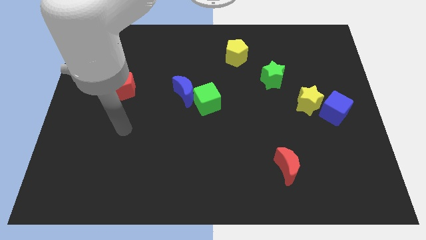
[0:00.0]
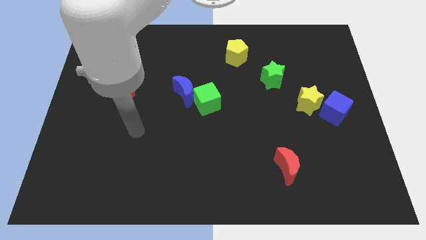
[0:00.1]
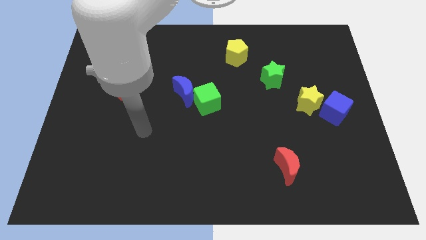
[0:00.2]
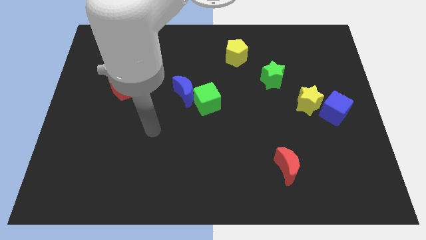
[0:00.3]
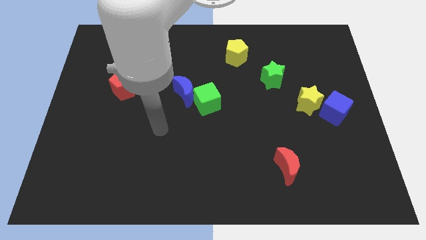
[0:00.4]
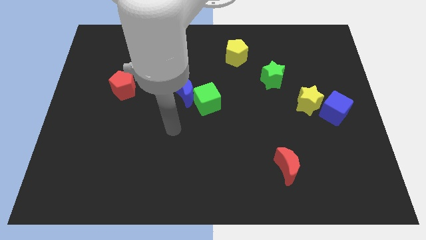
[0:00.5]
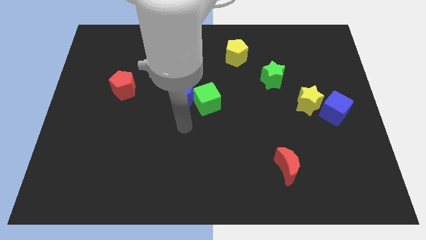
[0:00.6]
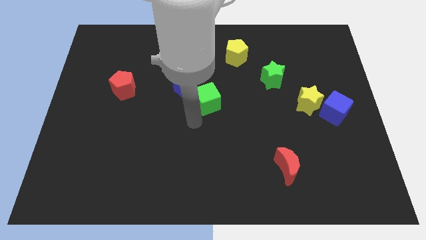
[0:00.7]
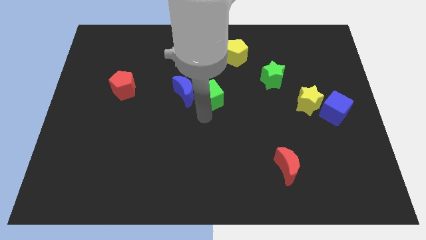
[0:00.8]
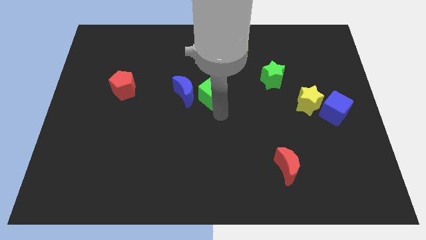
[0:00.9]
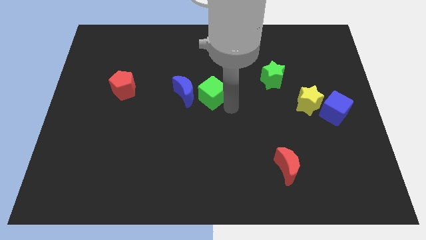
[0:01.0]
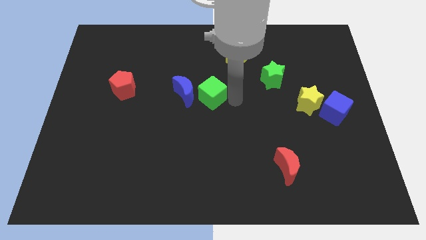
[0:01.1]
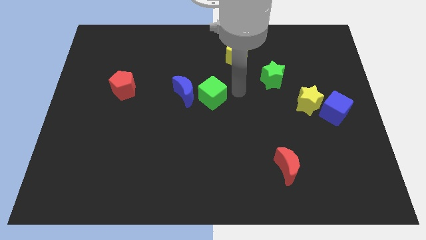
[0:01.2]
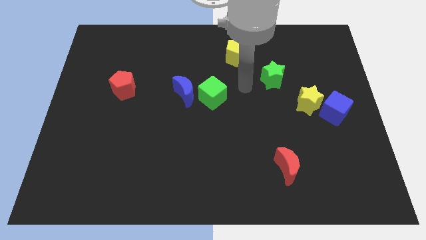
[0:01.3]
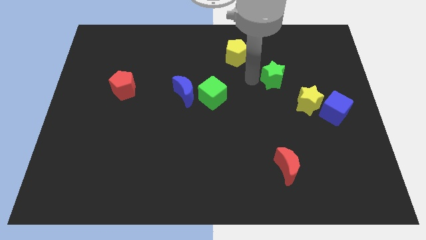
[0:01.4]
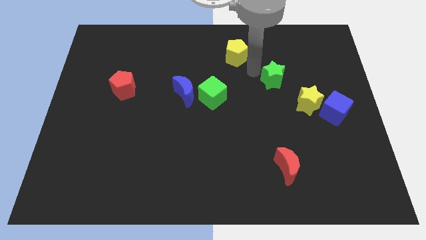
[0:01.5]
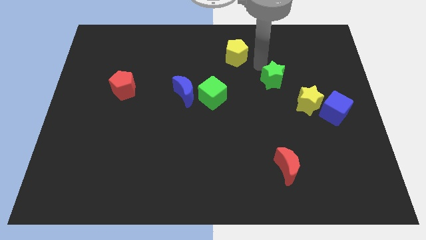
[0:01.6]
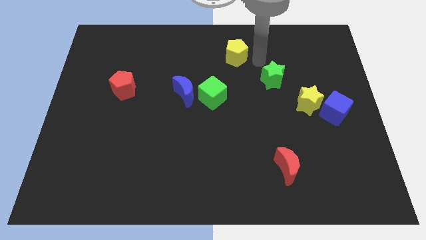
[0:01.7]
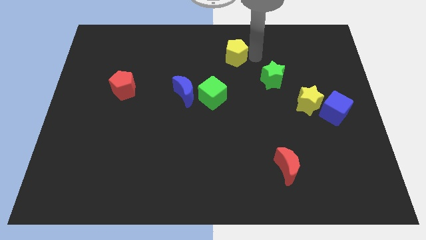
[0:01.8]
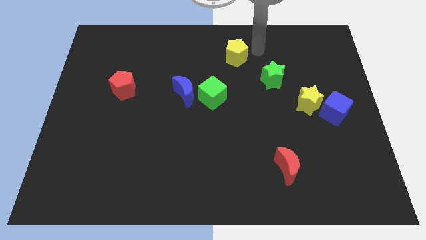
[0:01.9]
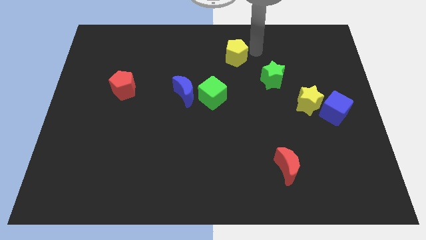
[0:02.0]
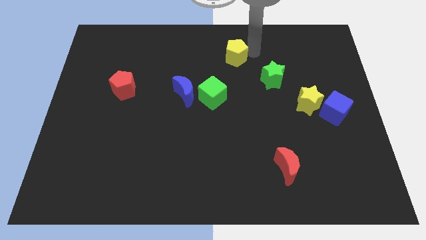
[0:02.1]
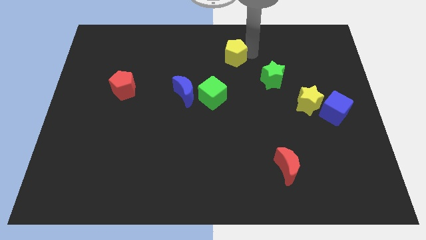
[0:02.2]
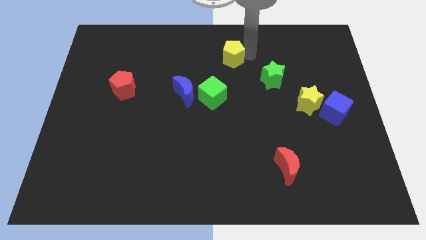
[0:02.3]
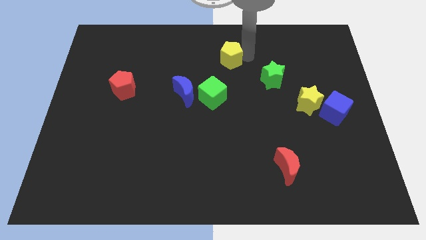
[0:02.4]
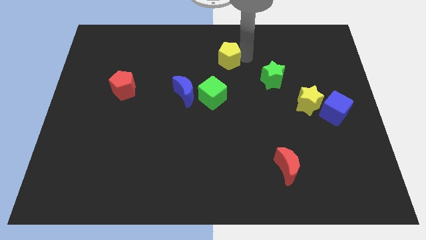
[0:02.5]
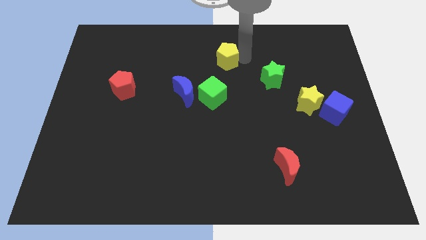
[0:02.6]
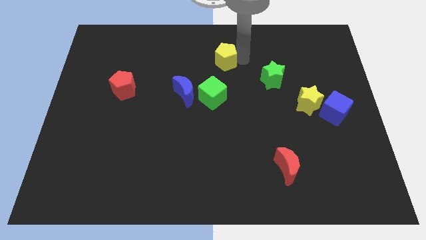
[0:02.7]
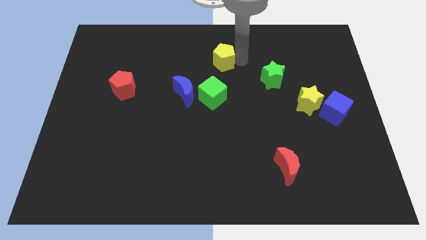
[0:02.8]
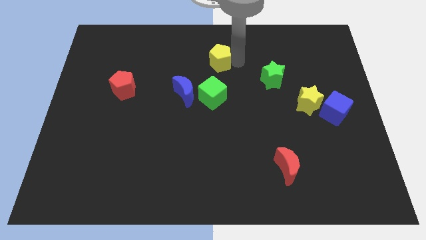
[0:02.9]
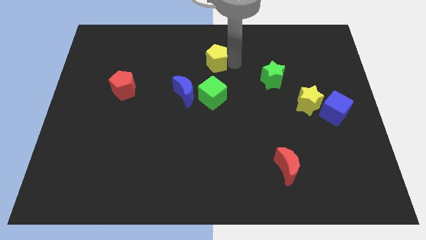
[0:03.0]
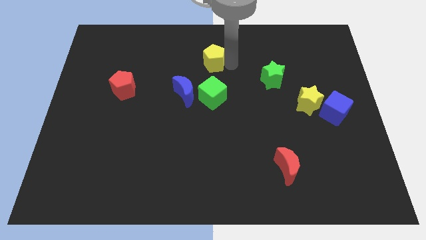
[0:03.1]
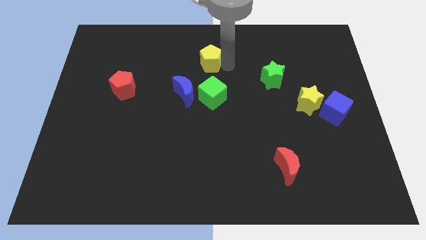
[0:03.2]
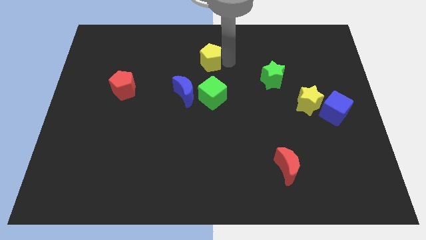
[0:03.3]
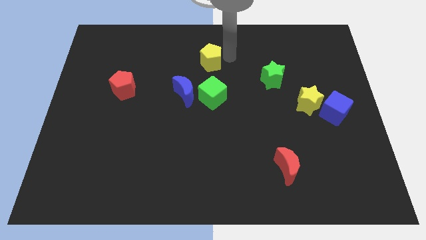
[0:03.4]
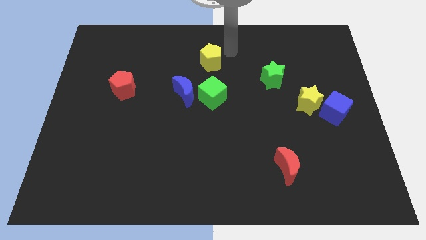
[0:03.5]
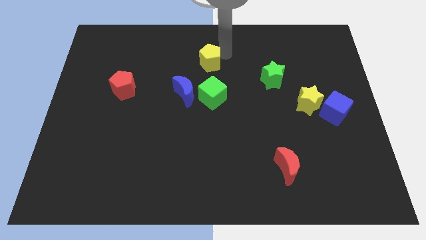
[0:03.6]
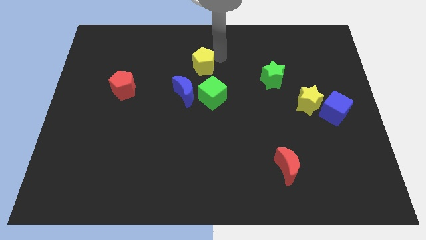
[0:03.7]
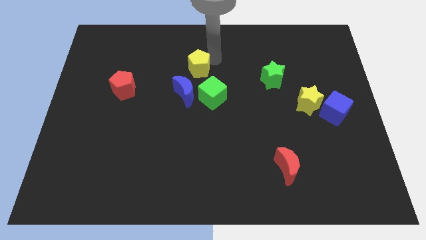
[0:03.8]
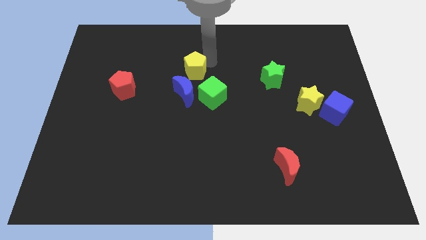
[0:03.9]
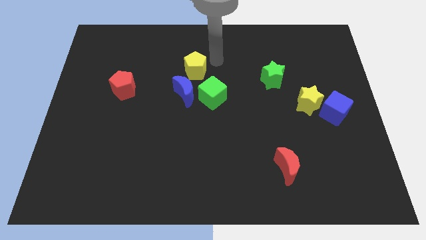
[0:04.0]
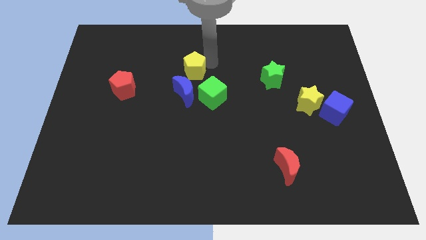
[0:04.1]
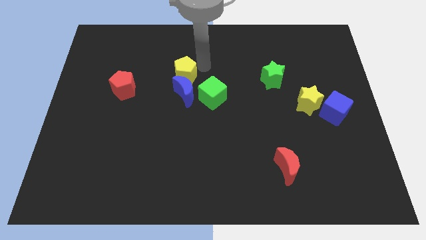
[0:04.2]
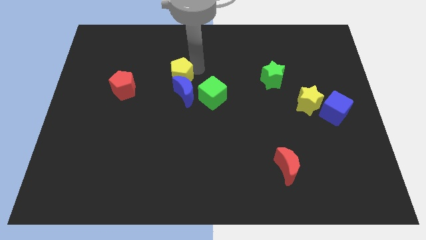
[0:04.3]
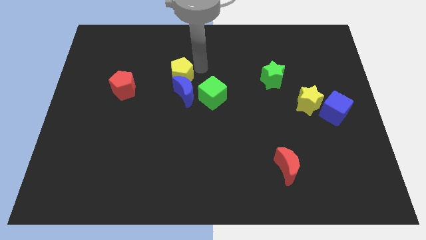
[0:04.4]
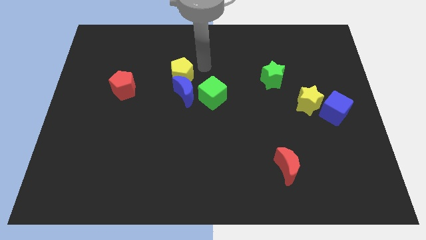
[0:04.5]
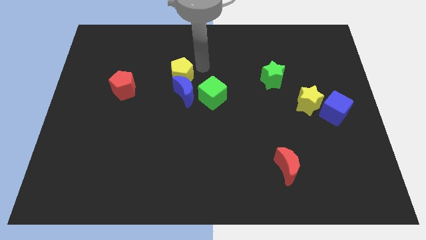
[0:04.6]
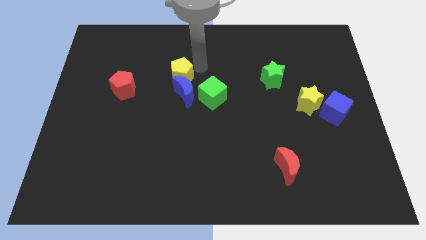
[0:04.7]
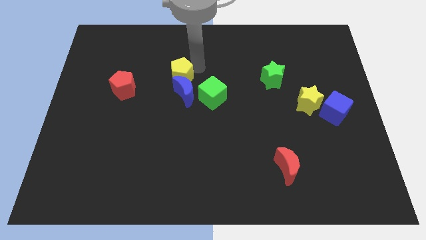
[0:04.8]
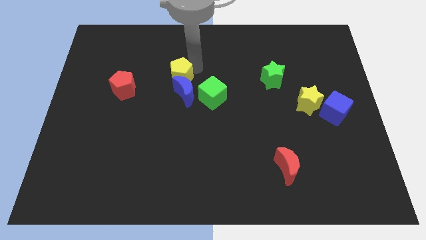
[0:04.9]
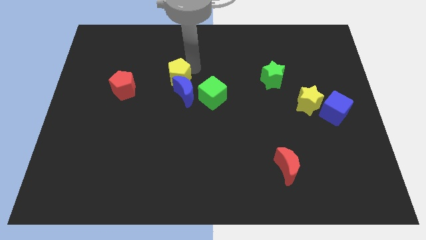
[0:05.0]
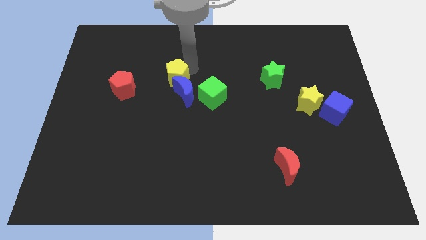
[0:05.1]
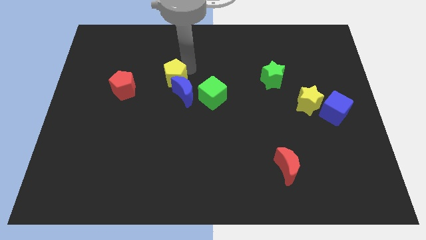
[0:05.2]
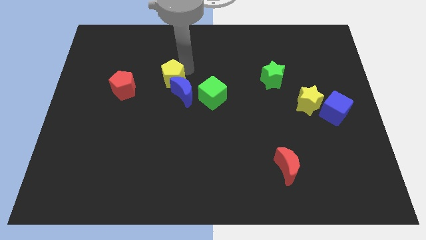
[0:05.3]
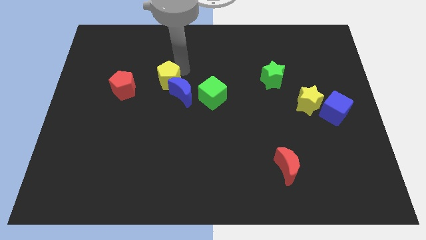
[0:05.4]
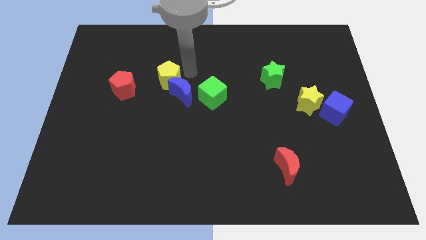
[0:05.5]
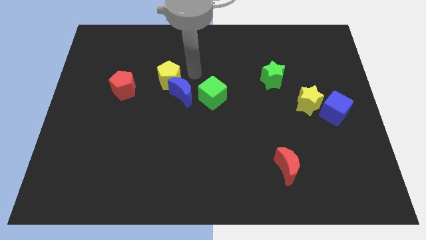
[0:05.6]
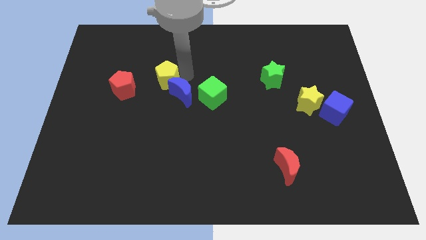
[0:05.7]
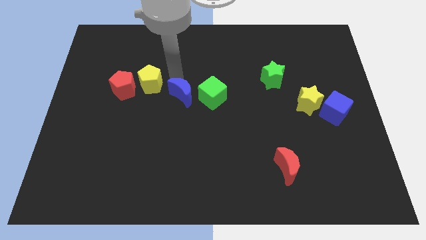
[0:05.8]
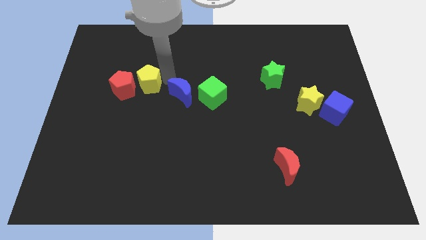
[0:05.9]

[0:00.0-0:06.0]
push the yellow pentagon to the red pentagon

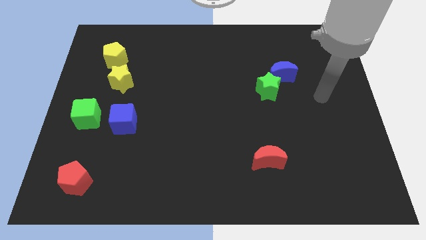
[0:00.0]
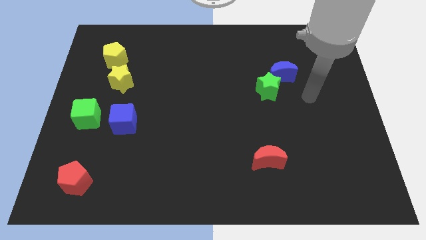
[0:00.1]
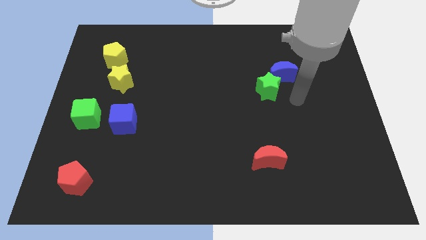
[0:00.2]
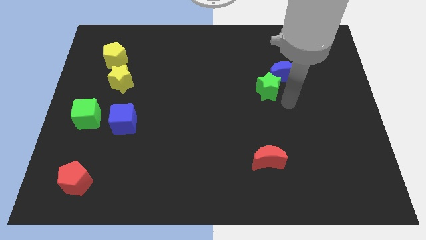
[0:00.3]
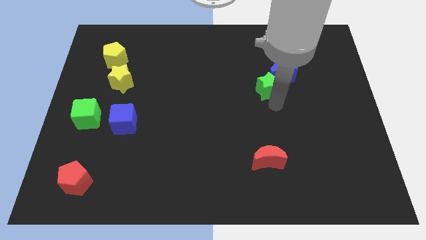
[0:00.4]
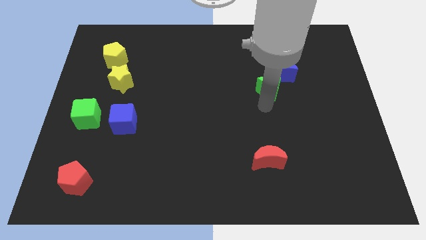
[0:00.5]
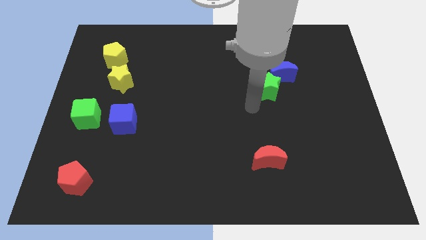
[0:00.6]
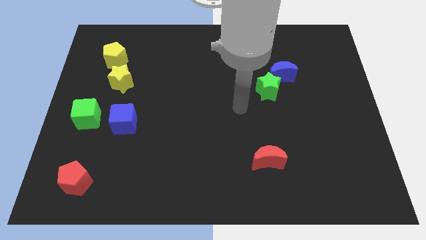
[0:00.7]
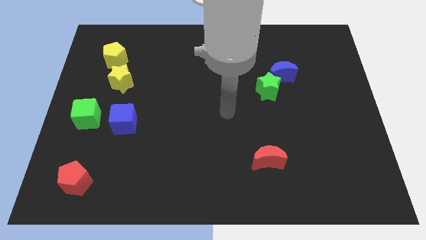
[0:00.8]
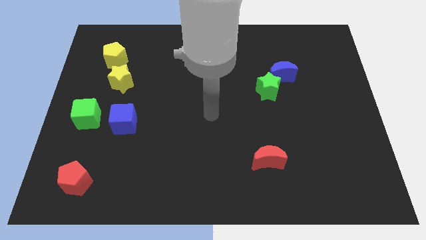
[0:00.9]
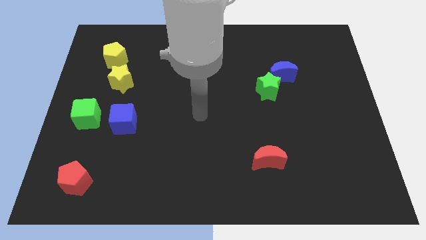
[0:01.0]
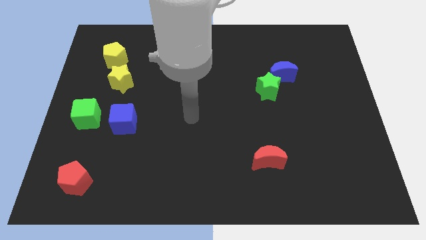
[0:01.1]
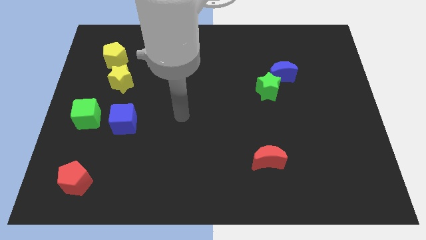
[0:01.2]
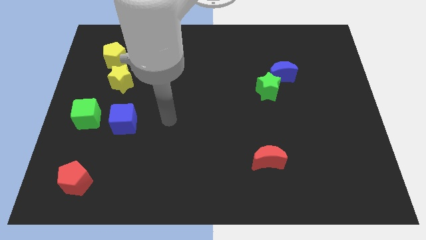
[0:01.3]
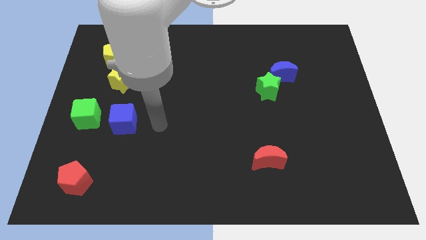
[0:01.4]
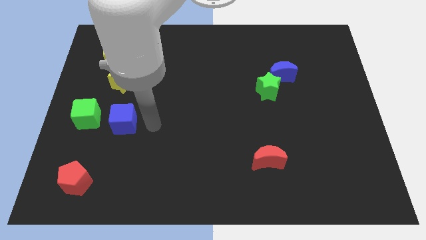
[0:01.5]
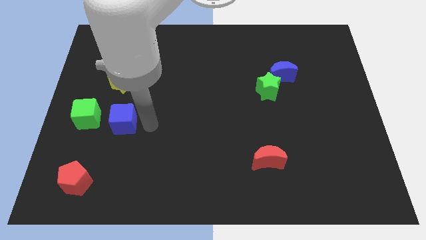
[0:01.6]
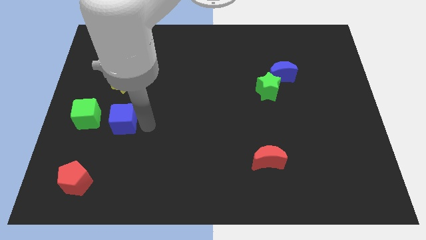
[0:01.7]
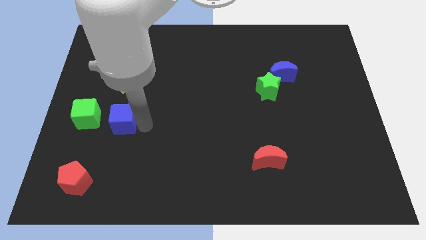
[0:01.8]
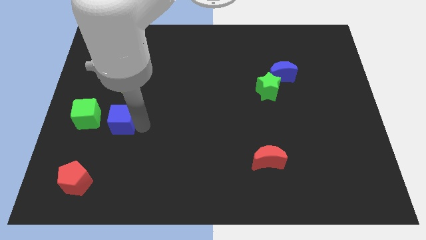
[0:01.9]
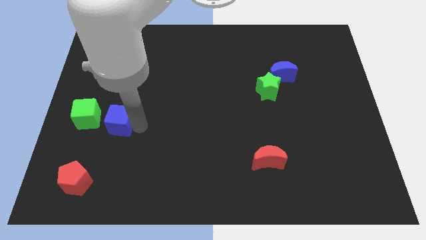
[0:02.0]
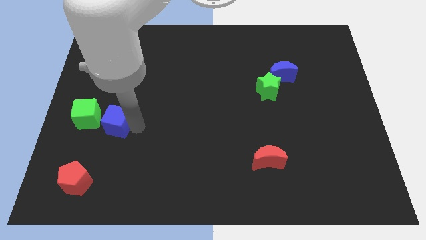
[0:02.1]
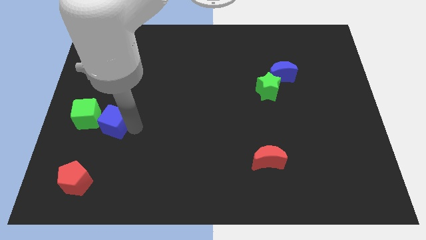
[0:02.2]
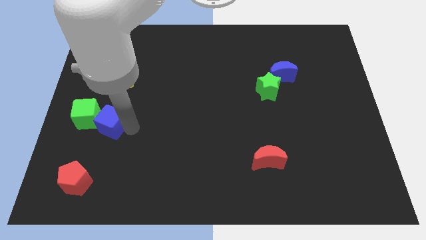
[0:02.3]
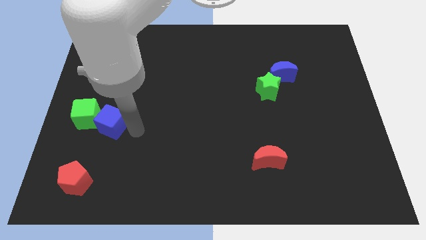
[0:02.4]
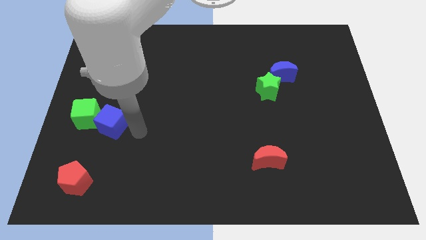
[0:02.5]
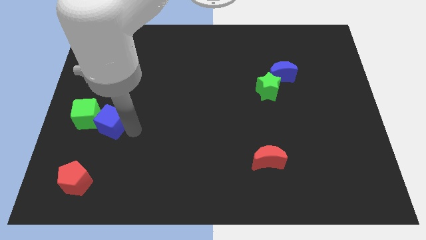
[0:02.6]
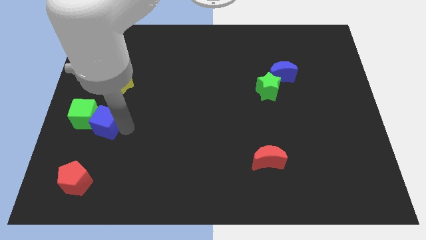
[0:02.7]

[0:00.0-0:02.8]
put the blue cube to the green cube
